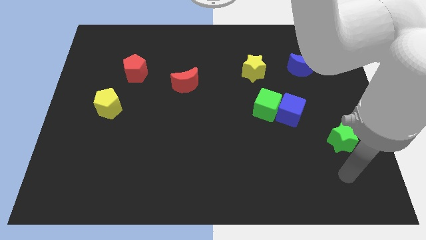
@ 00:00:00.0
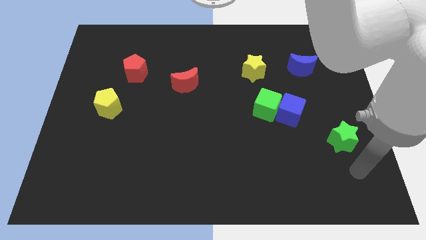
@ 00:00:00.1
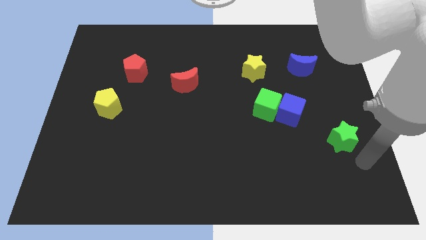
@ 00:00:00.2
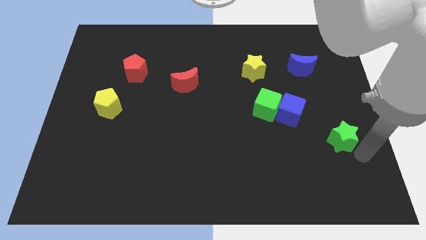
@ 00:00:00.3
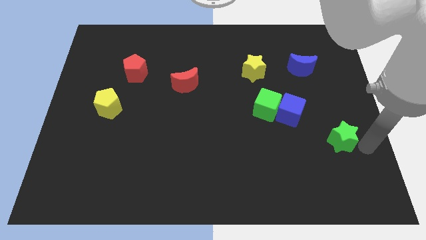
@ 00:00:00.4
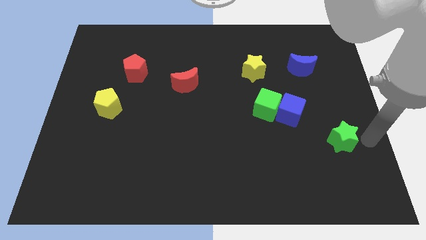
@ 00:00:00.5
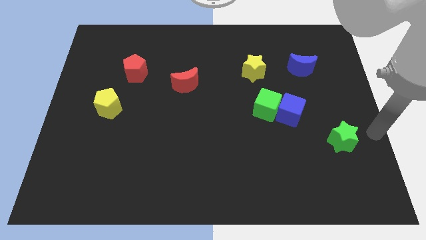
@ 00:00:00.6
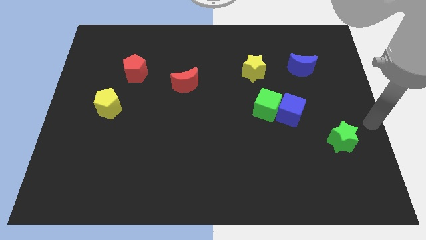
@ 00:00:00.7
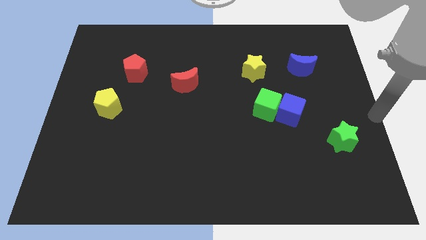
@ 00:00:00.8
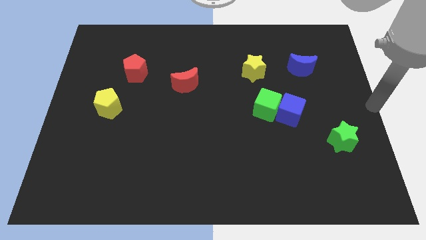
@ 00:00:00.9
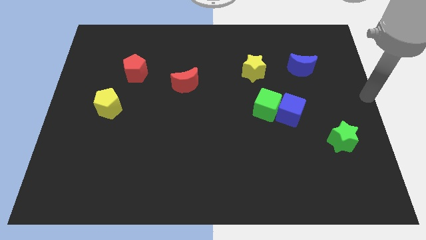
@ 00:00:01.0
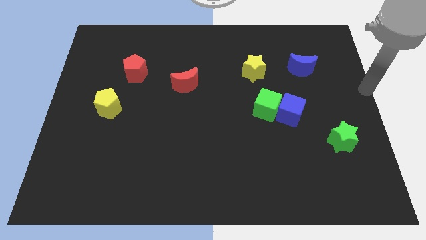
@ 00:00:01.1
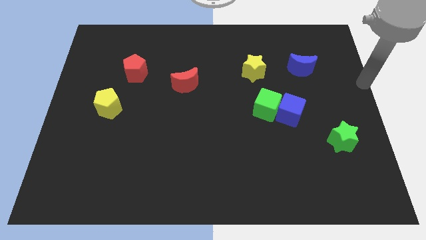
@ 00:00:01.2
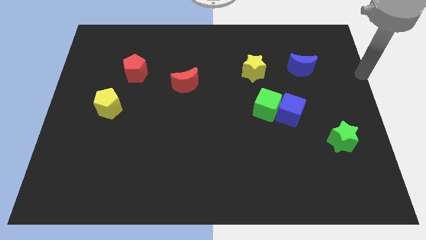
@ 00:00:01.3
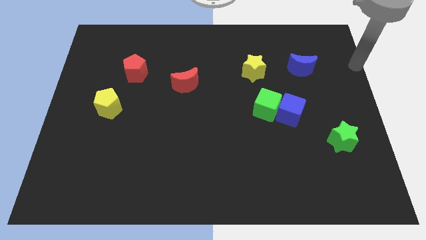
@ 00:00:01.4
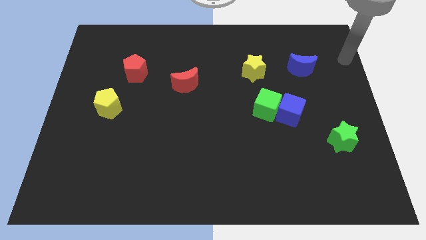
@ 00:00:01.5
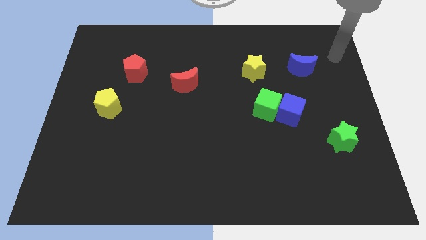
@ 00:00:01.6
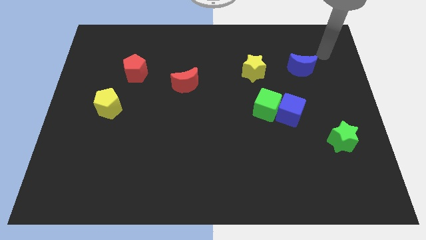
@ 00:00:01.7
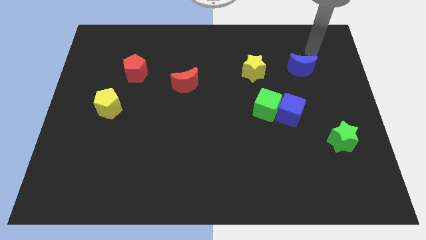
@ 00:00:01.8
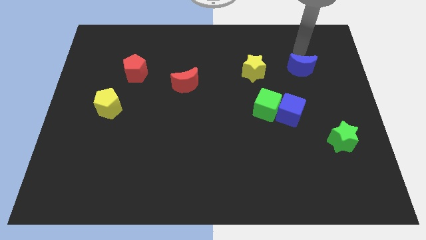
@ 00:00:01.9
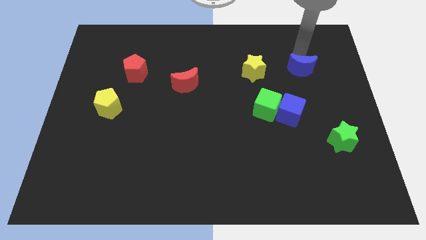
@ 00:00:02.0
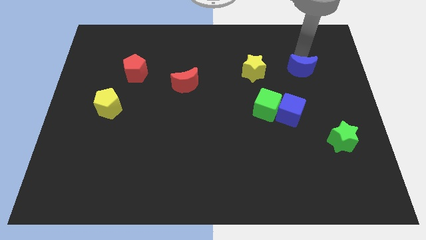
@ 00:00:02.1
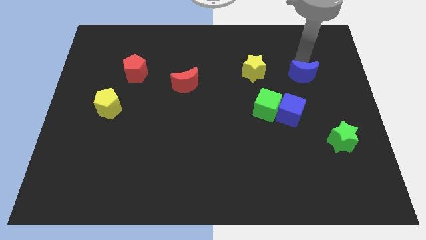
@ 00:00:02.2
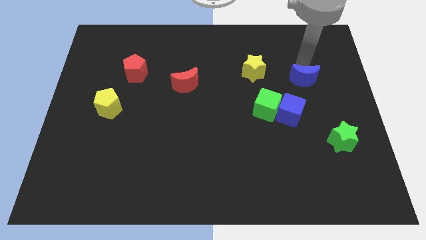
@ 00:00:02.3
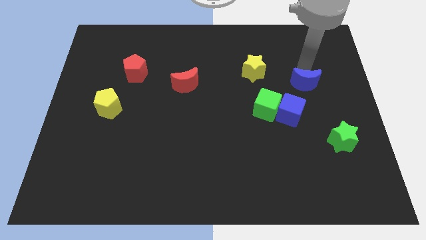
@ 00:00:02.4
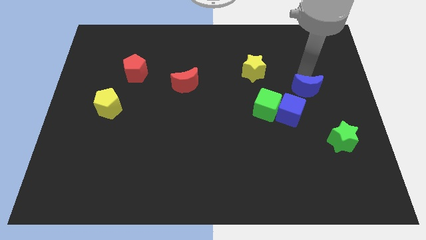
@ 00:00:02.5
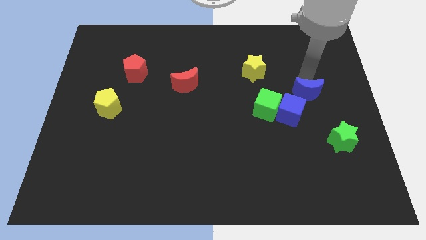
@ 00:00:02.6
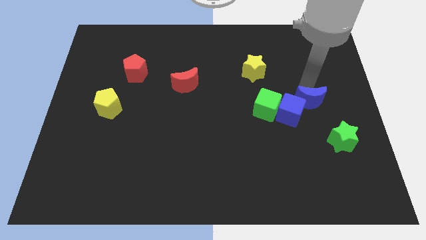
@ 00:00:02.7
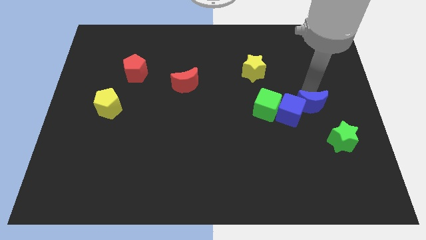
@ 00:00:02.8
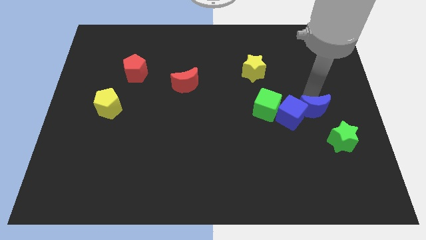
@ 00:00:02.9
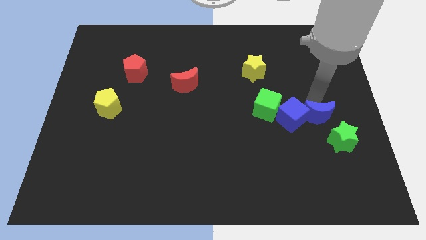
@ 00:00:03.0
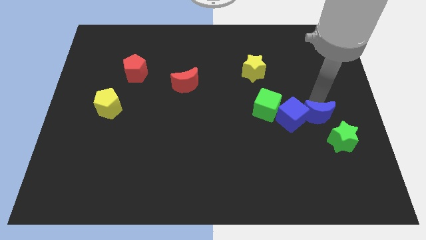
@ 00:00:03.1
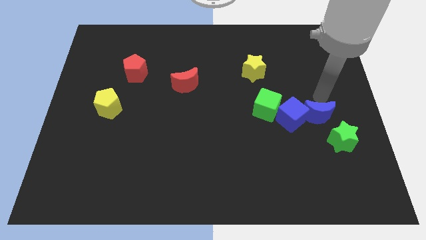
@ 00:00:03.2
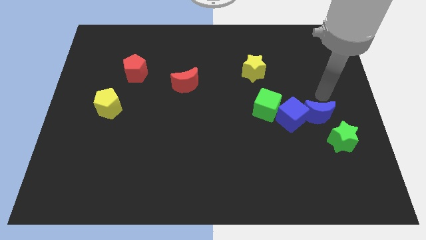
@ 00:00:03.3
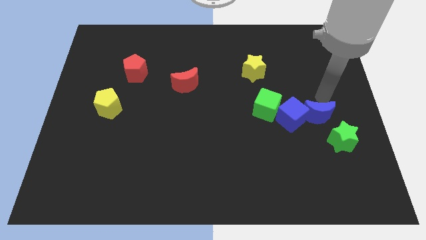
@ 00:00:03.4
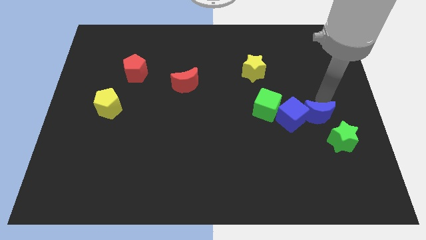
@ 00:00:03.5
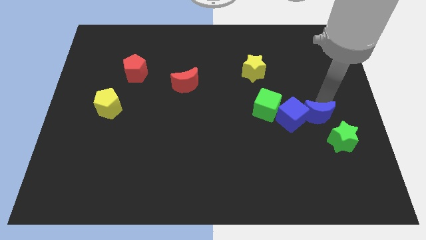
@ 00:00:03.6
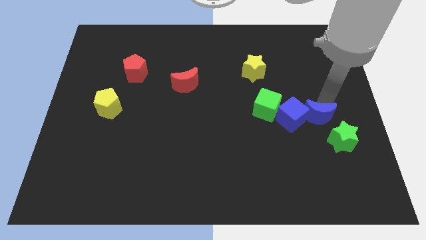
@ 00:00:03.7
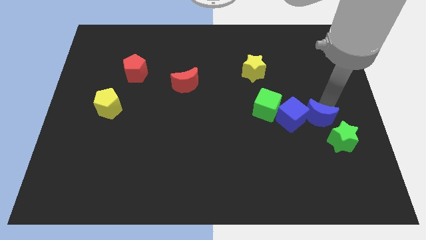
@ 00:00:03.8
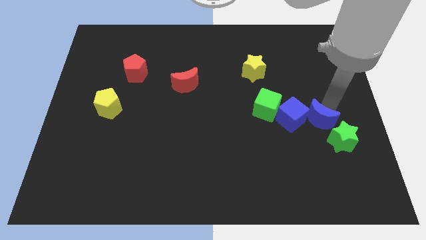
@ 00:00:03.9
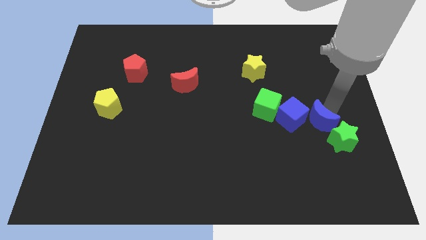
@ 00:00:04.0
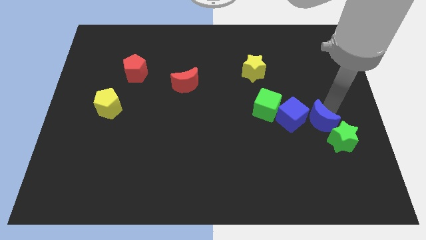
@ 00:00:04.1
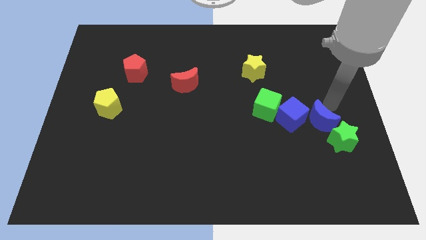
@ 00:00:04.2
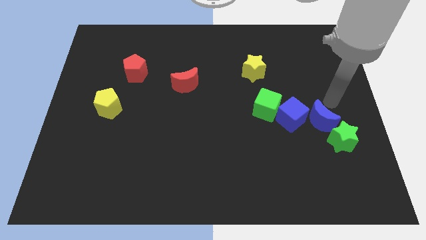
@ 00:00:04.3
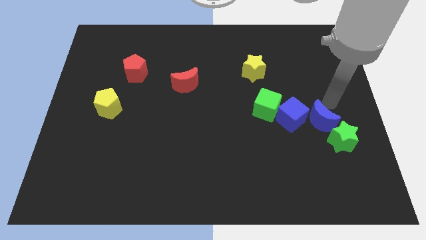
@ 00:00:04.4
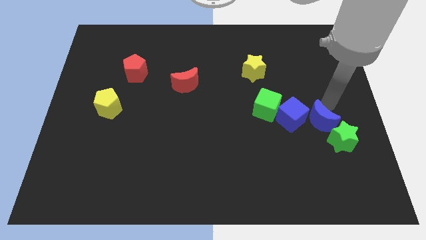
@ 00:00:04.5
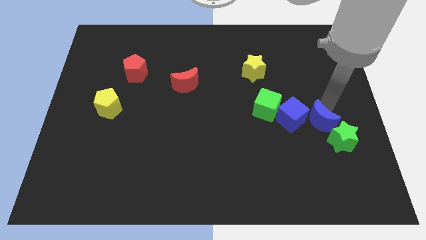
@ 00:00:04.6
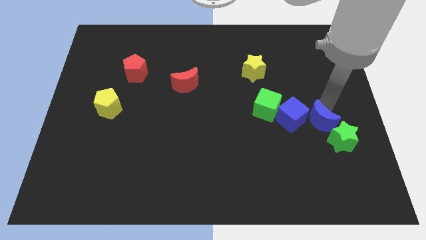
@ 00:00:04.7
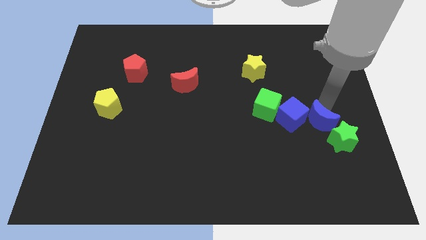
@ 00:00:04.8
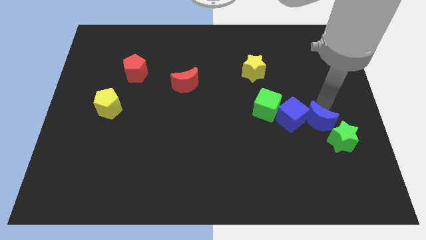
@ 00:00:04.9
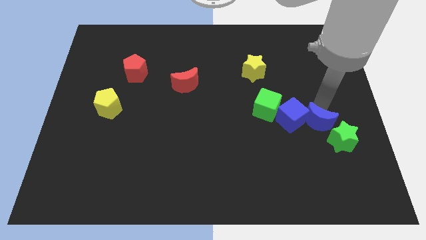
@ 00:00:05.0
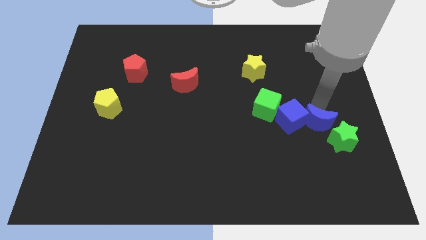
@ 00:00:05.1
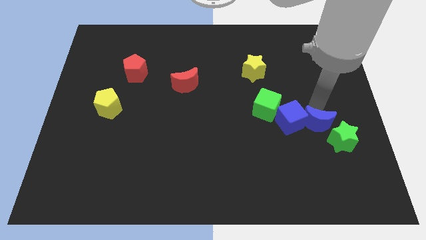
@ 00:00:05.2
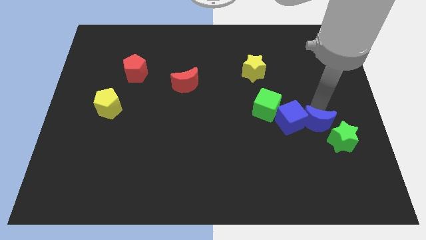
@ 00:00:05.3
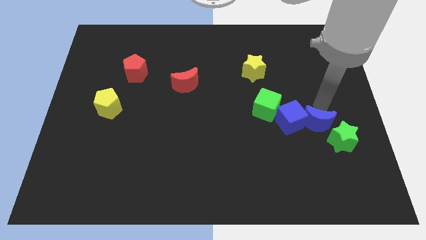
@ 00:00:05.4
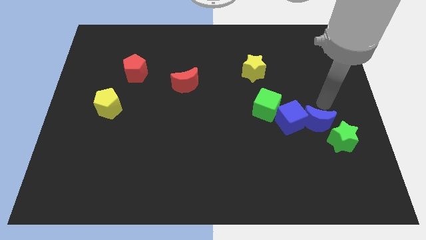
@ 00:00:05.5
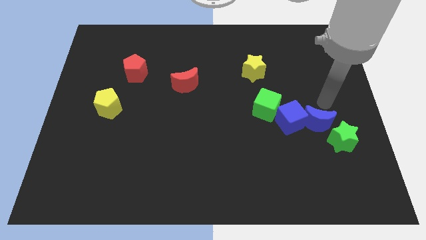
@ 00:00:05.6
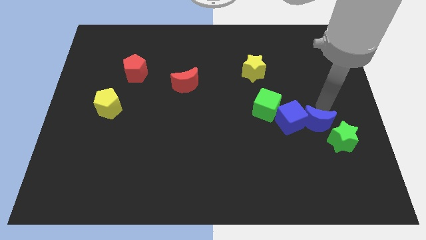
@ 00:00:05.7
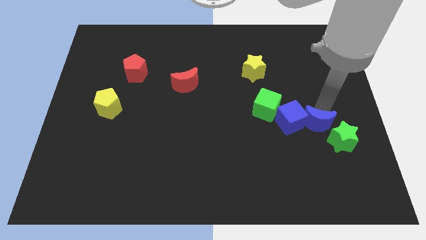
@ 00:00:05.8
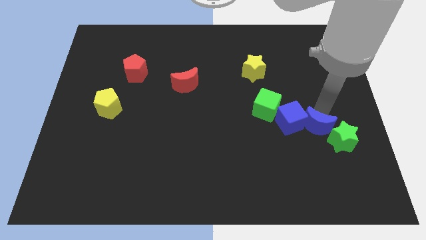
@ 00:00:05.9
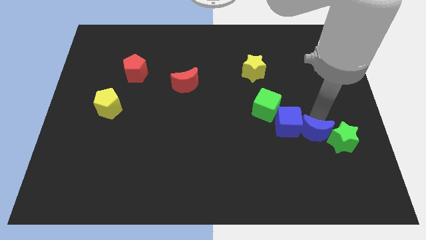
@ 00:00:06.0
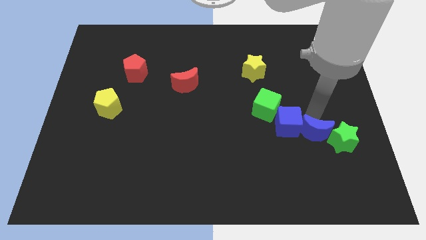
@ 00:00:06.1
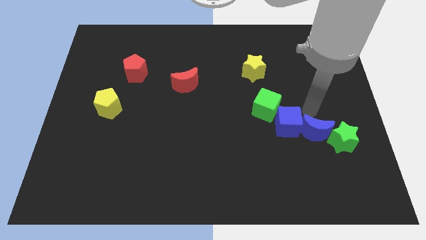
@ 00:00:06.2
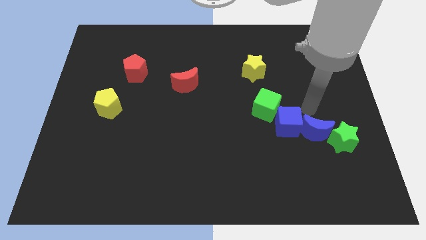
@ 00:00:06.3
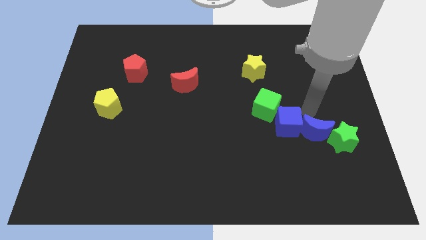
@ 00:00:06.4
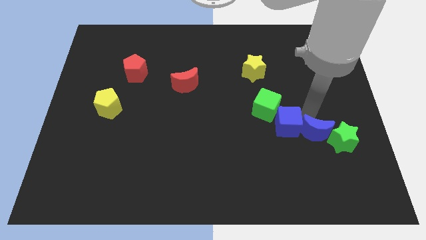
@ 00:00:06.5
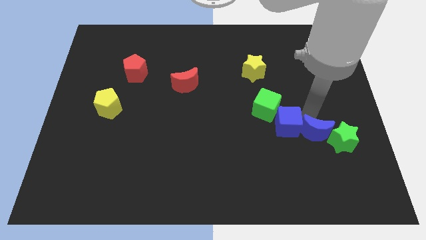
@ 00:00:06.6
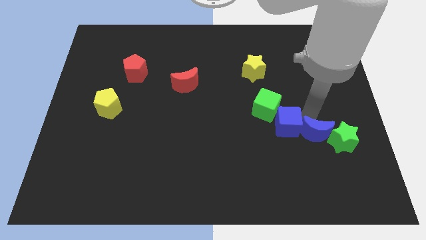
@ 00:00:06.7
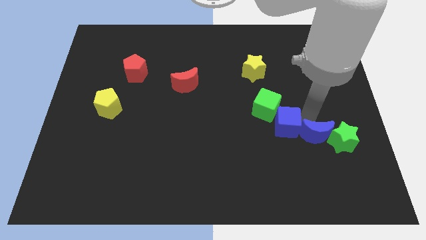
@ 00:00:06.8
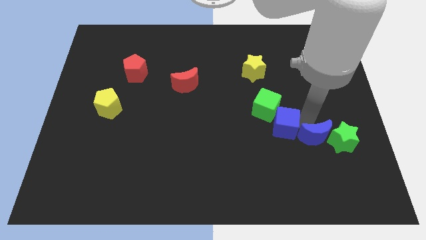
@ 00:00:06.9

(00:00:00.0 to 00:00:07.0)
push the blue moon diagonally down and to the left of the green star

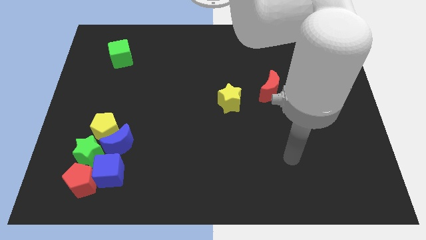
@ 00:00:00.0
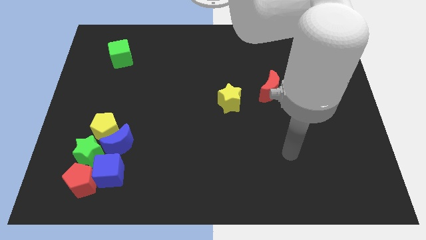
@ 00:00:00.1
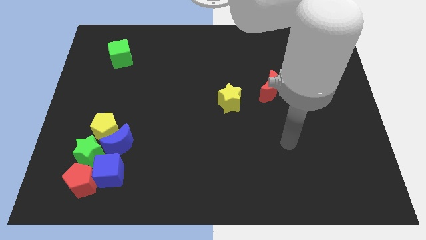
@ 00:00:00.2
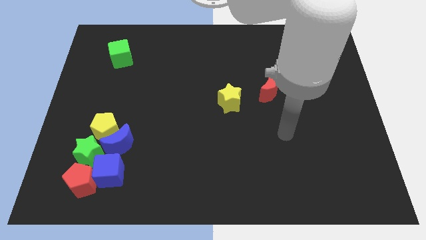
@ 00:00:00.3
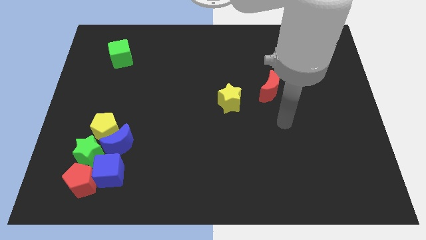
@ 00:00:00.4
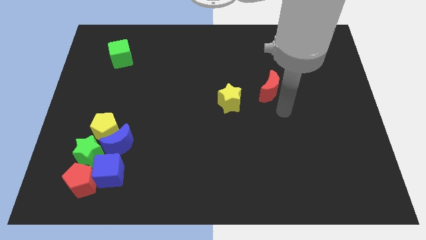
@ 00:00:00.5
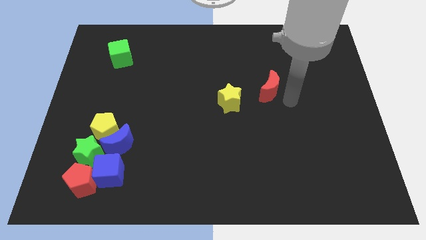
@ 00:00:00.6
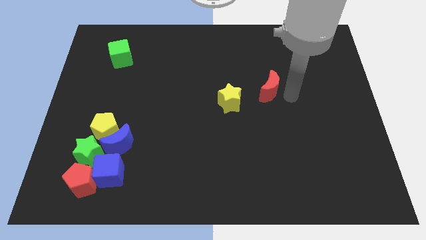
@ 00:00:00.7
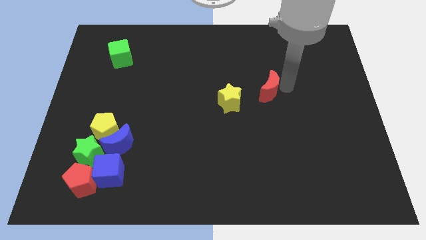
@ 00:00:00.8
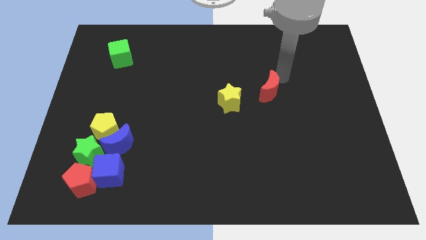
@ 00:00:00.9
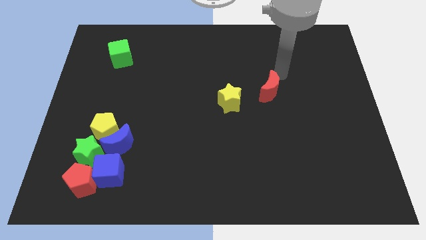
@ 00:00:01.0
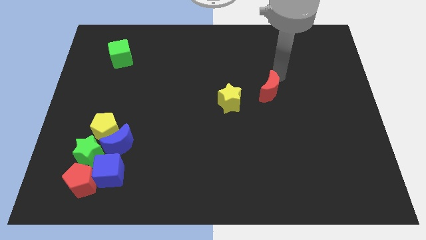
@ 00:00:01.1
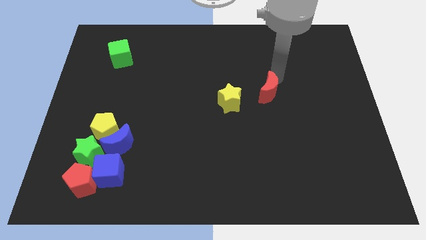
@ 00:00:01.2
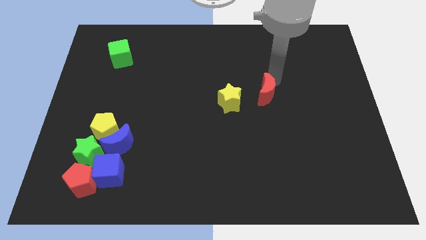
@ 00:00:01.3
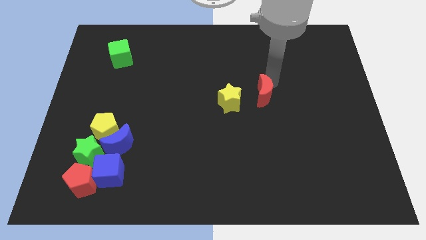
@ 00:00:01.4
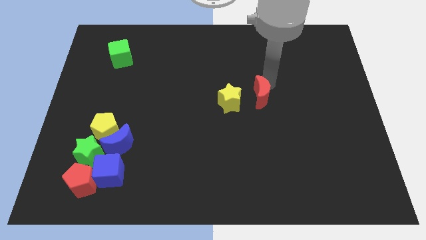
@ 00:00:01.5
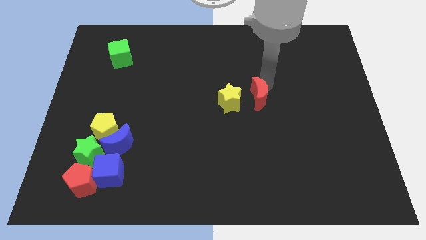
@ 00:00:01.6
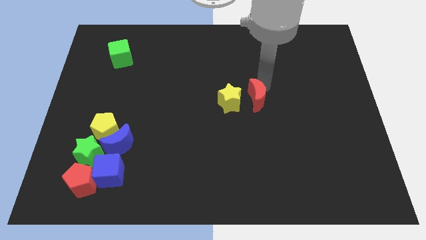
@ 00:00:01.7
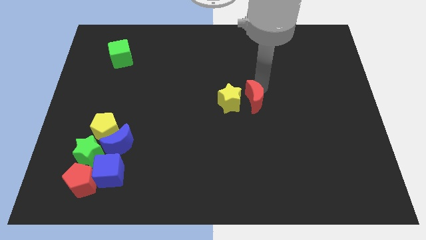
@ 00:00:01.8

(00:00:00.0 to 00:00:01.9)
slide the red moon to the bottom right of the yellow star
